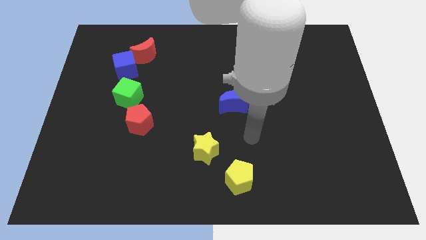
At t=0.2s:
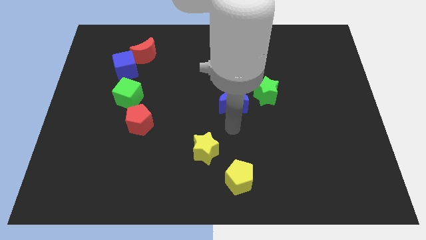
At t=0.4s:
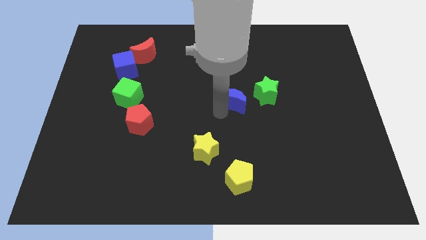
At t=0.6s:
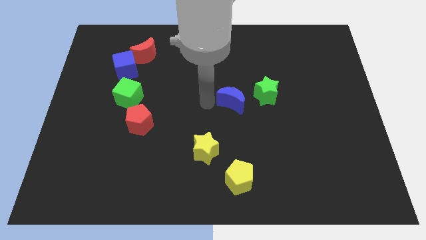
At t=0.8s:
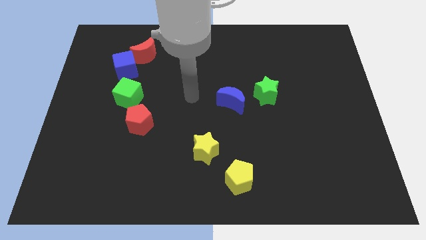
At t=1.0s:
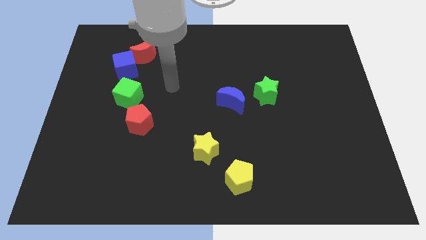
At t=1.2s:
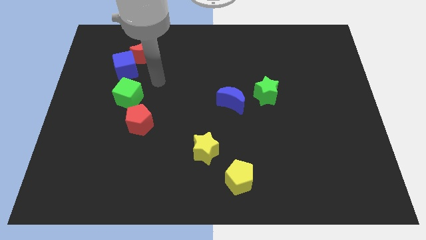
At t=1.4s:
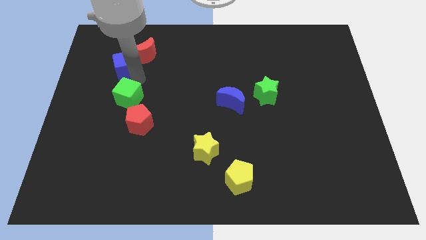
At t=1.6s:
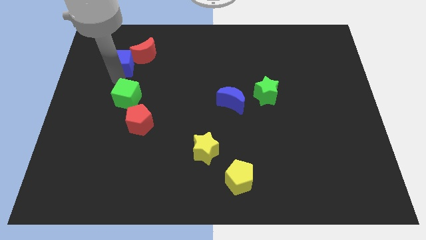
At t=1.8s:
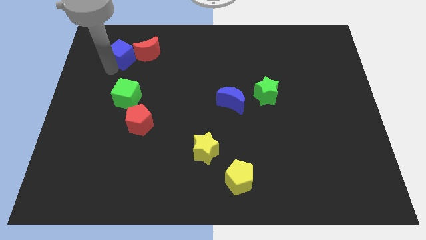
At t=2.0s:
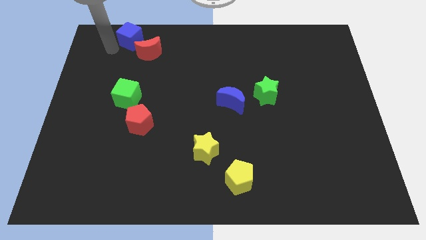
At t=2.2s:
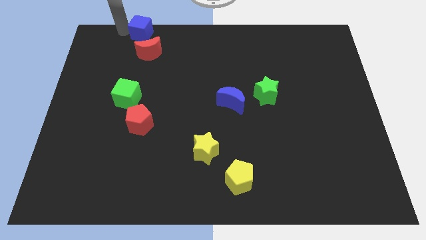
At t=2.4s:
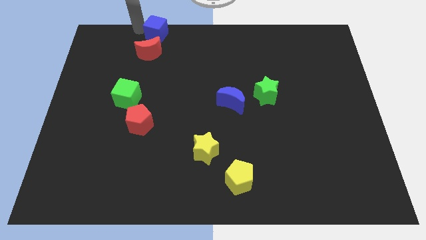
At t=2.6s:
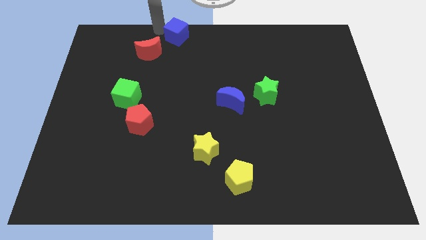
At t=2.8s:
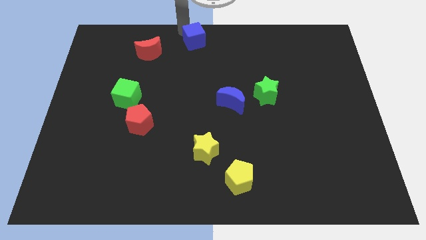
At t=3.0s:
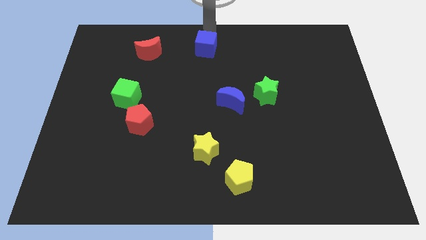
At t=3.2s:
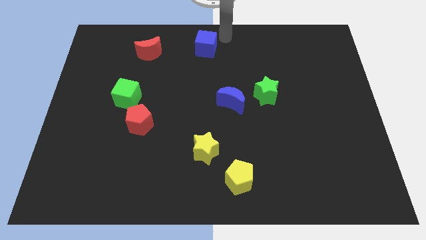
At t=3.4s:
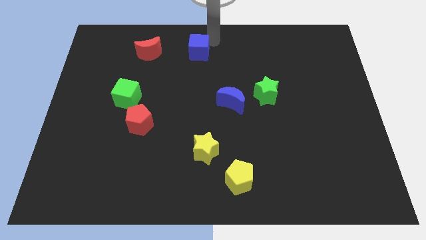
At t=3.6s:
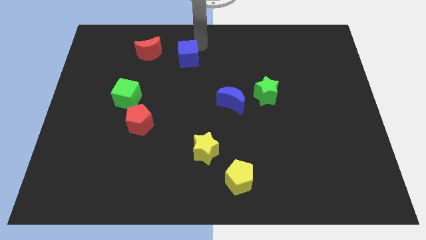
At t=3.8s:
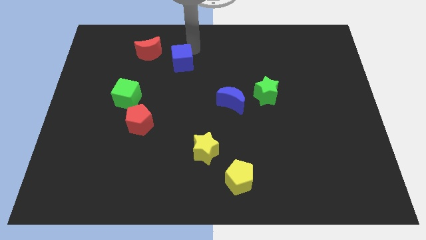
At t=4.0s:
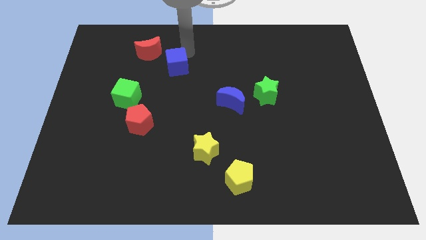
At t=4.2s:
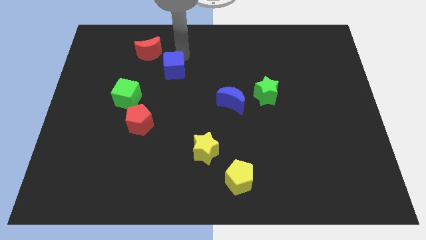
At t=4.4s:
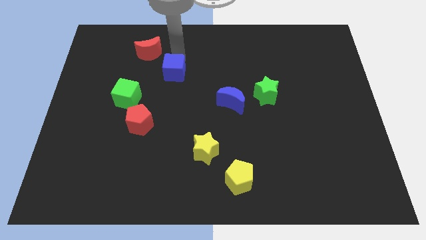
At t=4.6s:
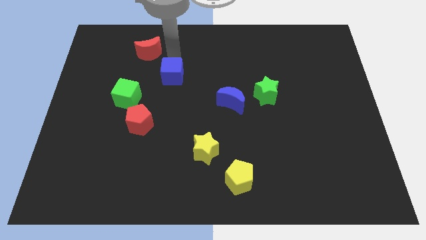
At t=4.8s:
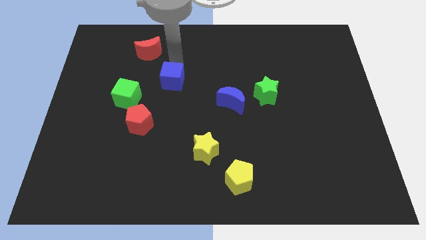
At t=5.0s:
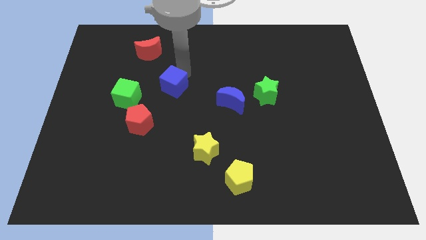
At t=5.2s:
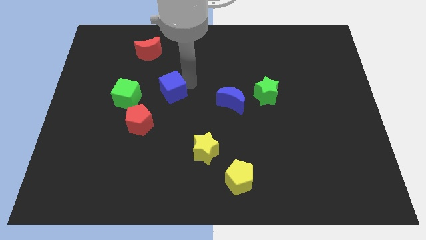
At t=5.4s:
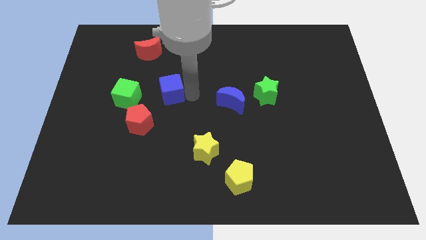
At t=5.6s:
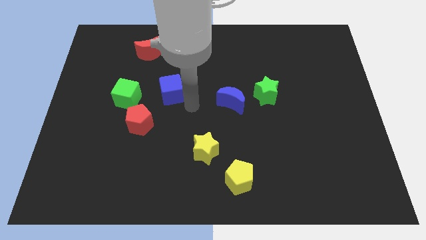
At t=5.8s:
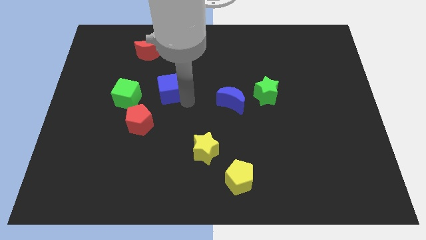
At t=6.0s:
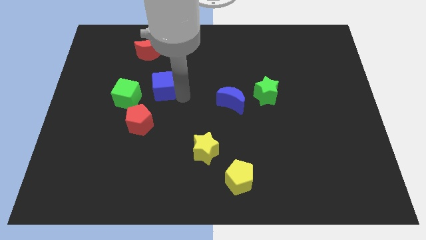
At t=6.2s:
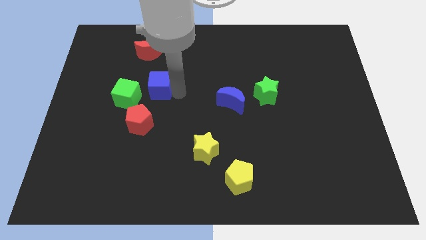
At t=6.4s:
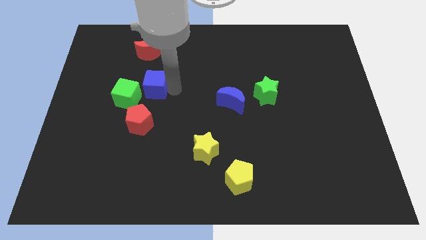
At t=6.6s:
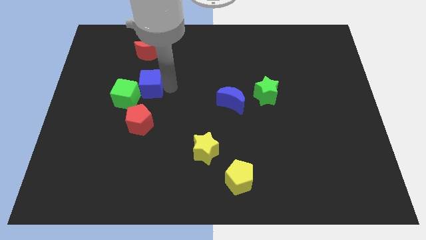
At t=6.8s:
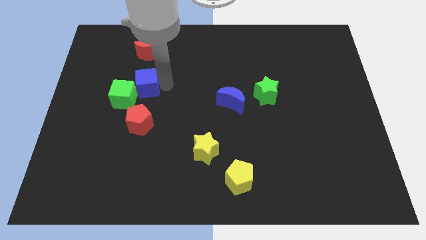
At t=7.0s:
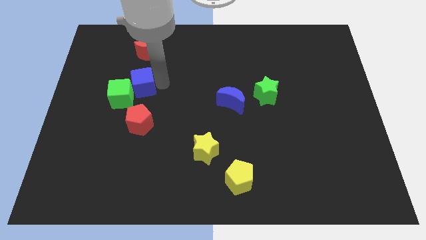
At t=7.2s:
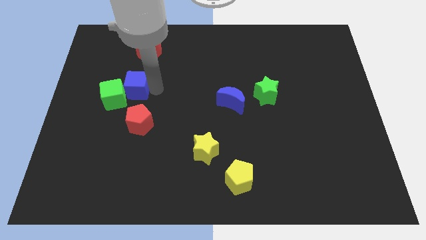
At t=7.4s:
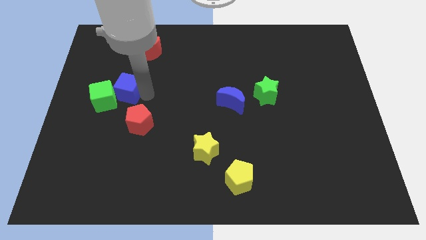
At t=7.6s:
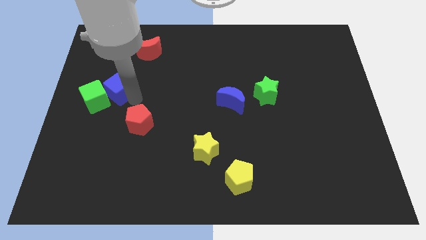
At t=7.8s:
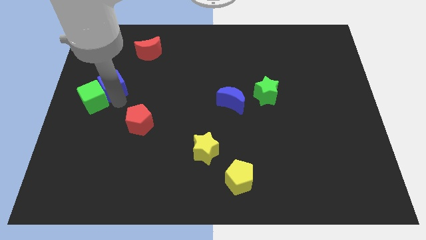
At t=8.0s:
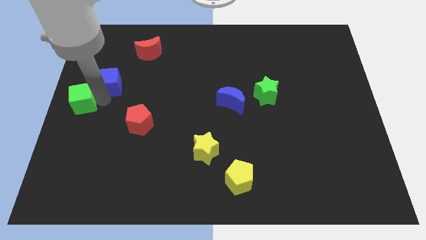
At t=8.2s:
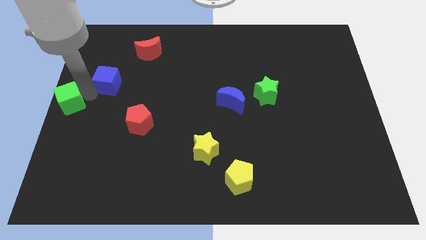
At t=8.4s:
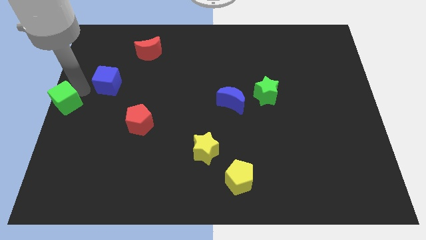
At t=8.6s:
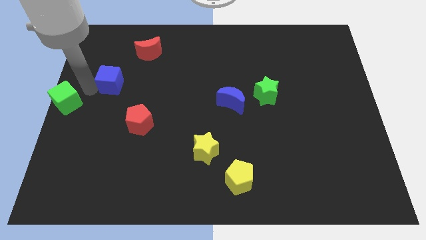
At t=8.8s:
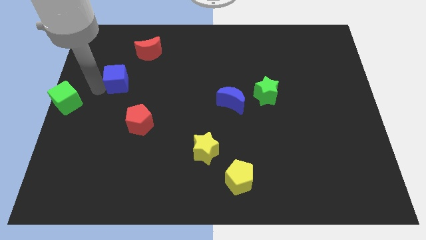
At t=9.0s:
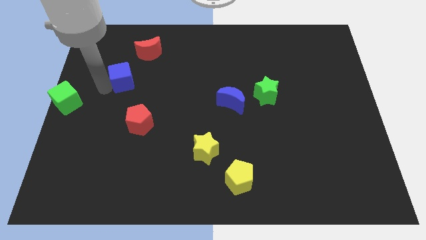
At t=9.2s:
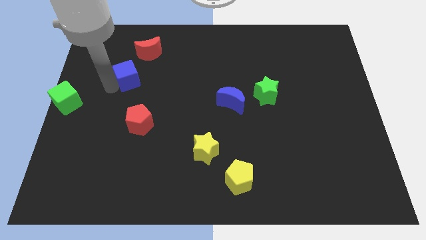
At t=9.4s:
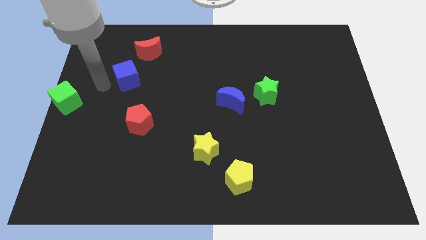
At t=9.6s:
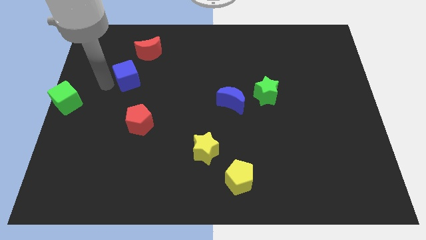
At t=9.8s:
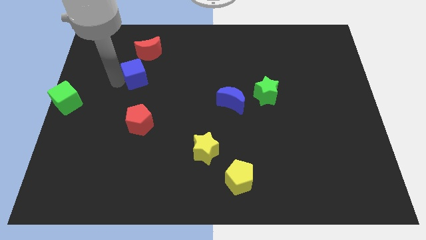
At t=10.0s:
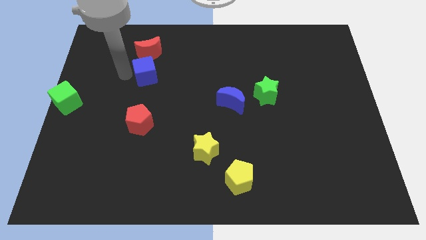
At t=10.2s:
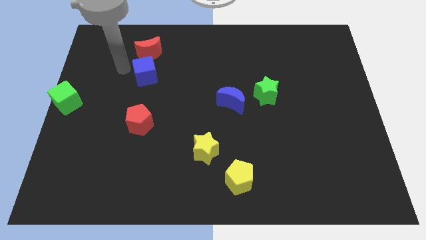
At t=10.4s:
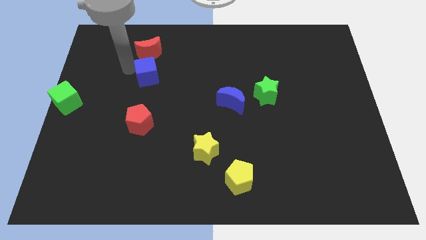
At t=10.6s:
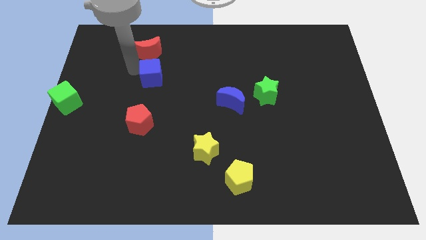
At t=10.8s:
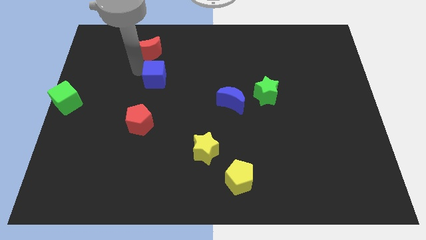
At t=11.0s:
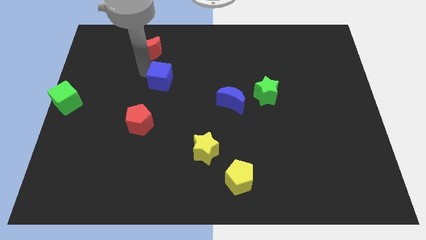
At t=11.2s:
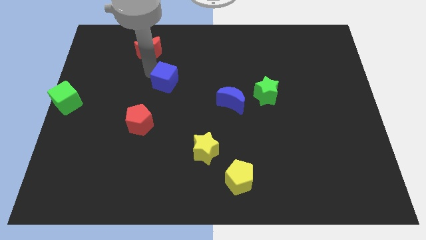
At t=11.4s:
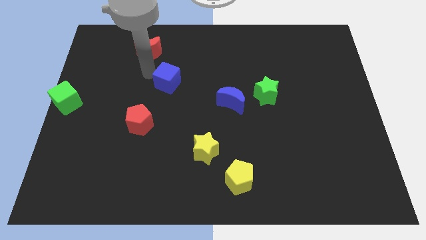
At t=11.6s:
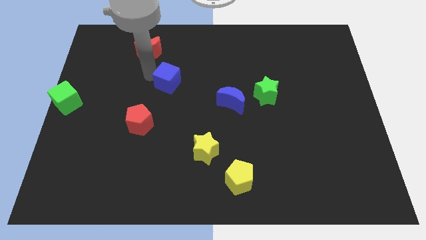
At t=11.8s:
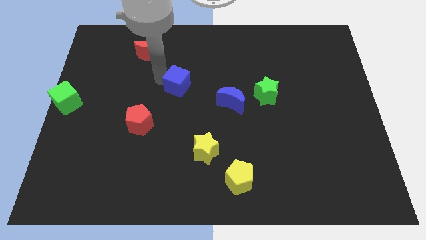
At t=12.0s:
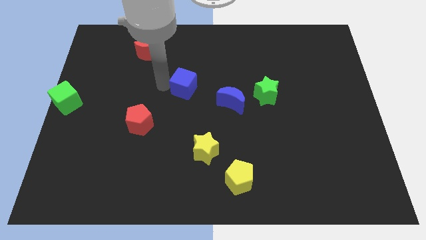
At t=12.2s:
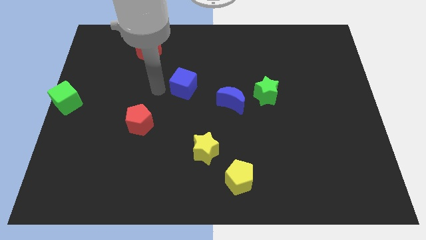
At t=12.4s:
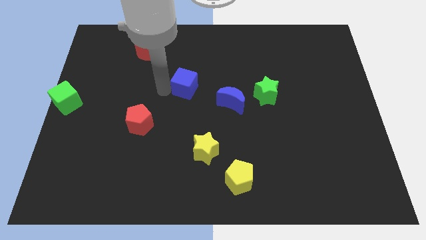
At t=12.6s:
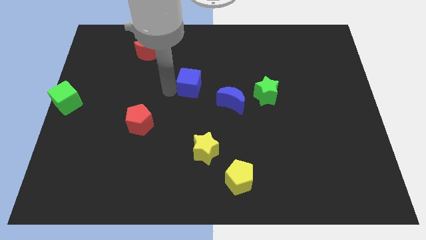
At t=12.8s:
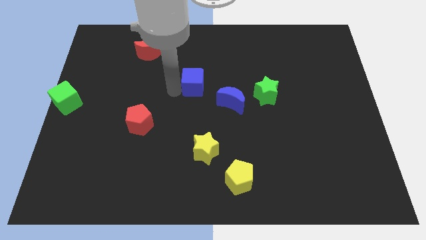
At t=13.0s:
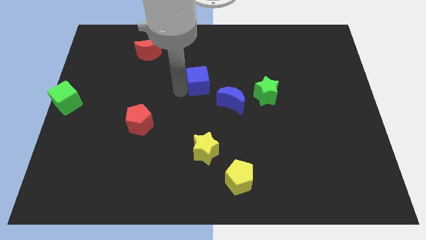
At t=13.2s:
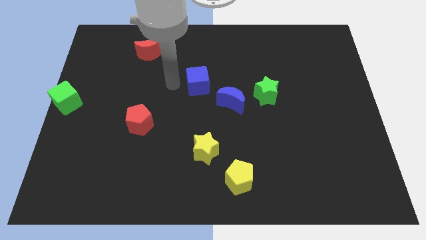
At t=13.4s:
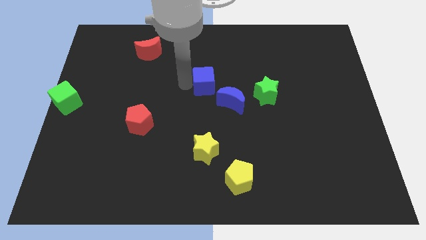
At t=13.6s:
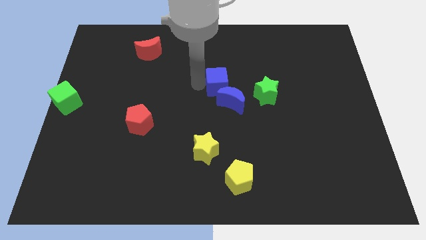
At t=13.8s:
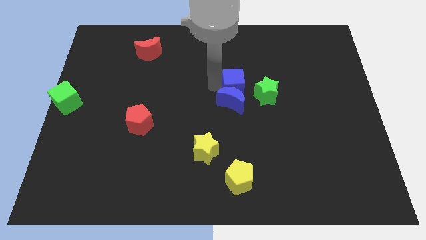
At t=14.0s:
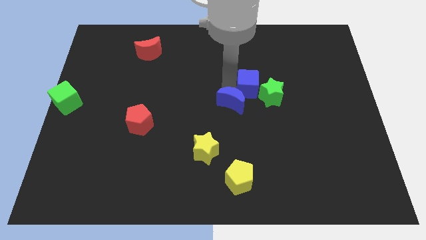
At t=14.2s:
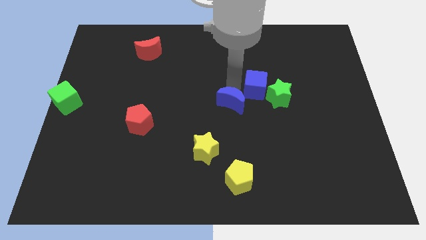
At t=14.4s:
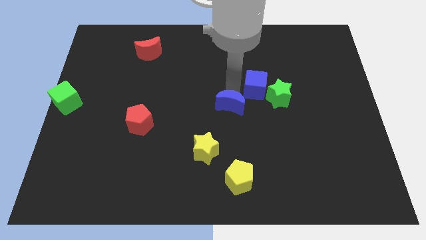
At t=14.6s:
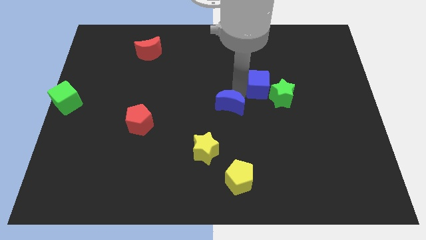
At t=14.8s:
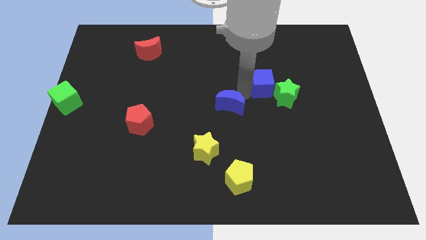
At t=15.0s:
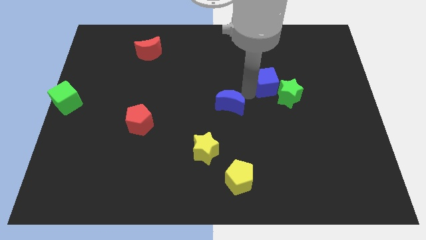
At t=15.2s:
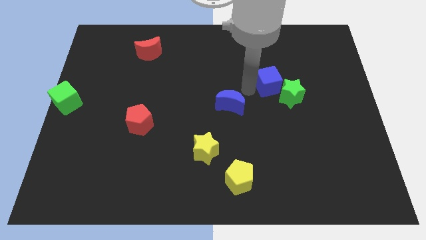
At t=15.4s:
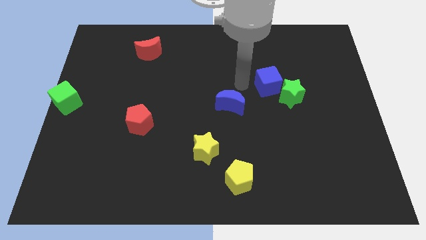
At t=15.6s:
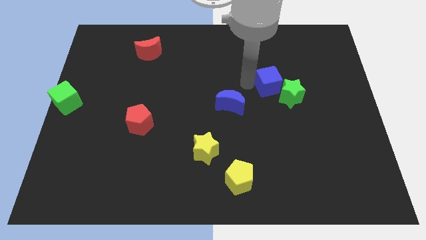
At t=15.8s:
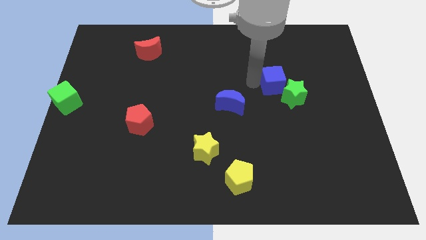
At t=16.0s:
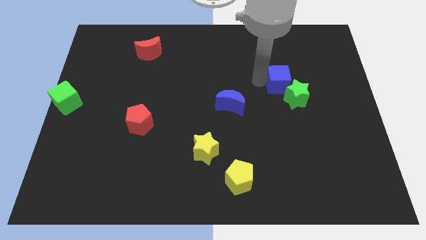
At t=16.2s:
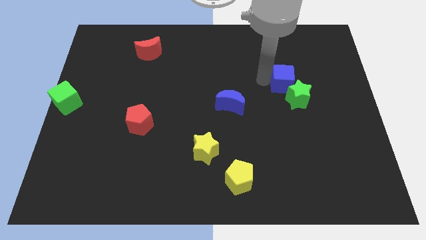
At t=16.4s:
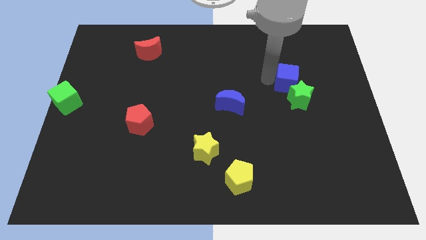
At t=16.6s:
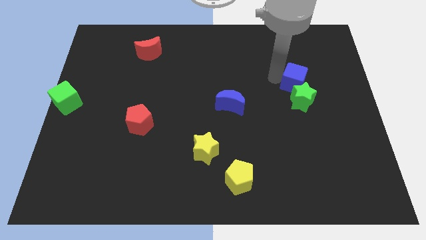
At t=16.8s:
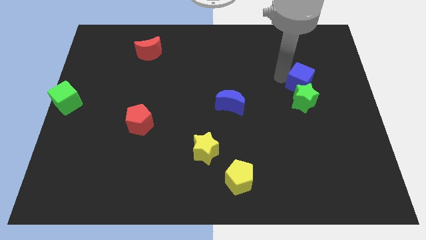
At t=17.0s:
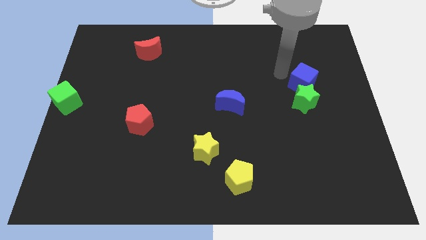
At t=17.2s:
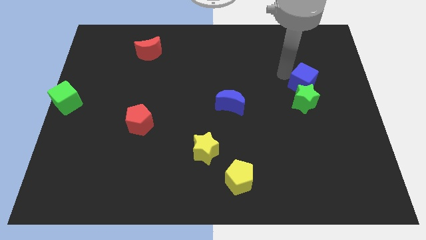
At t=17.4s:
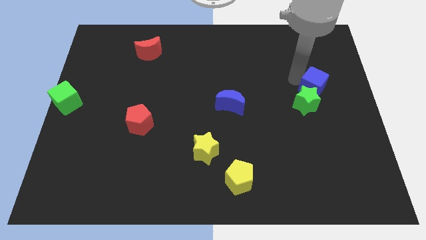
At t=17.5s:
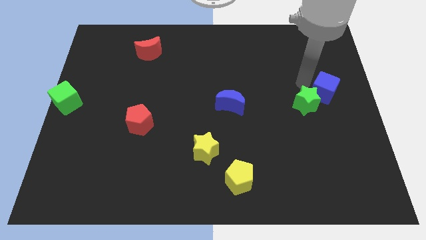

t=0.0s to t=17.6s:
push the blue cube to the center right
